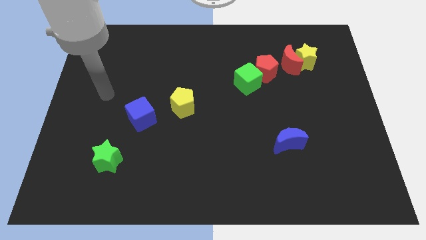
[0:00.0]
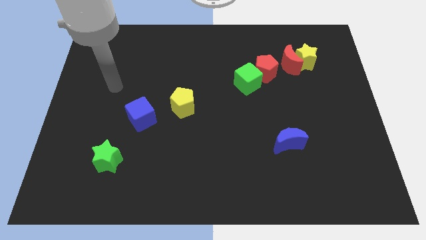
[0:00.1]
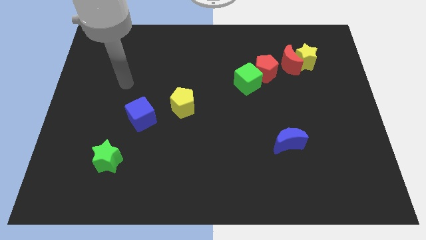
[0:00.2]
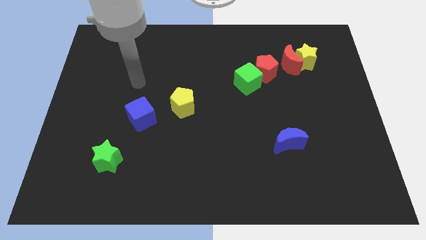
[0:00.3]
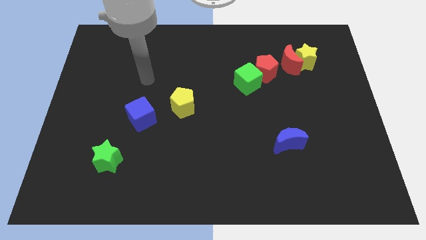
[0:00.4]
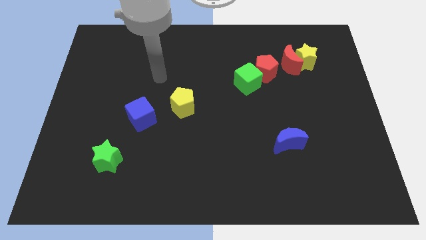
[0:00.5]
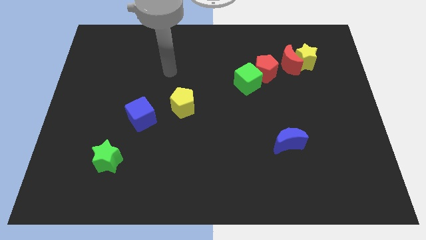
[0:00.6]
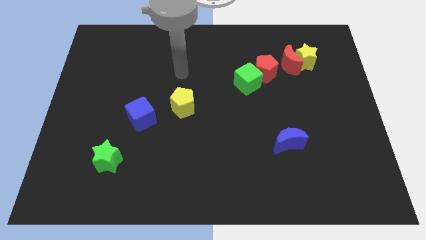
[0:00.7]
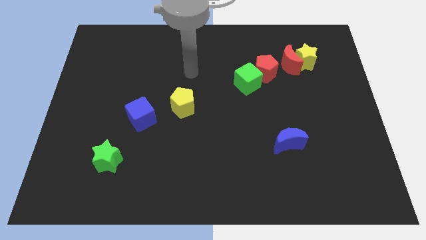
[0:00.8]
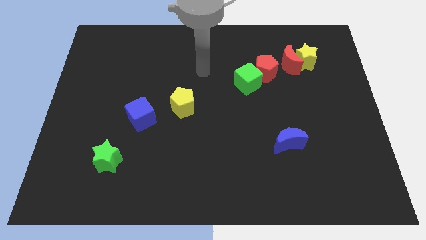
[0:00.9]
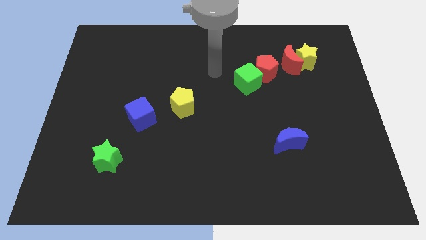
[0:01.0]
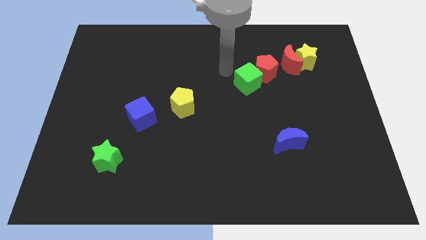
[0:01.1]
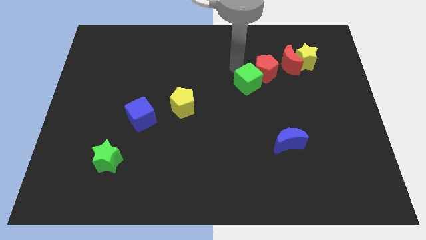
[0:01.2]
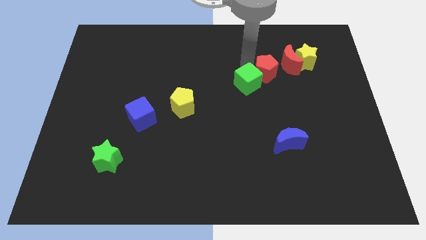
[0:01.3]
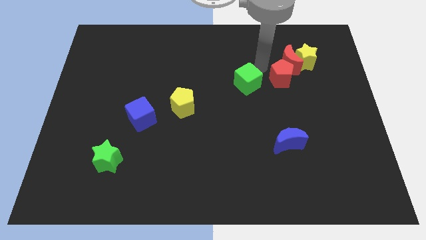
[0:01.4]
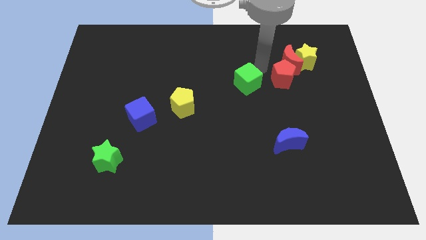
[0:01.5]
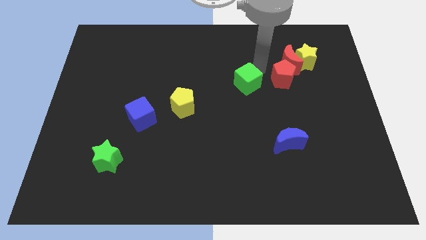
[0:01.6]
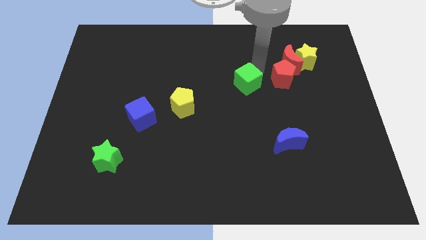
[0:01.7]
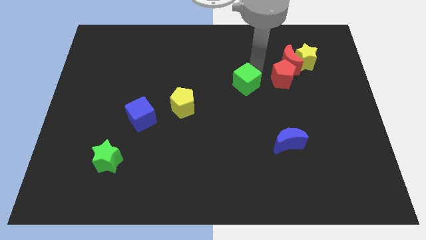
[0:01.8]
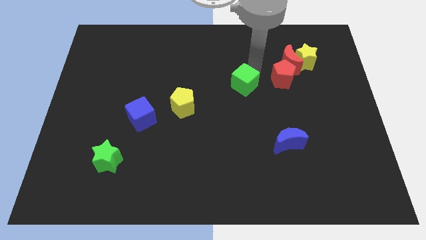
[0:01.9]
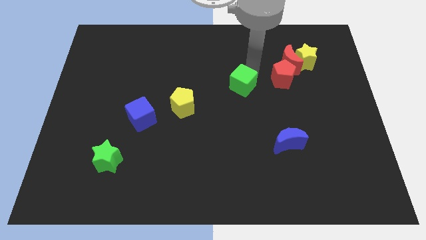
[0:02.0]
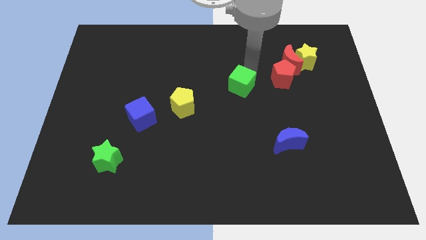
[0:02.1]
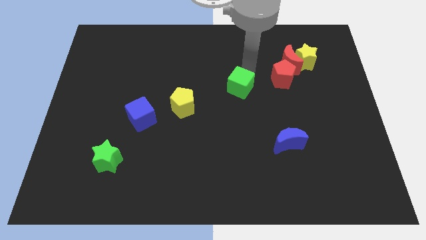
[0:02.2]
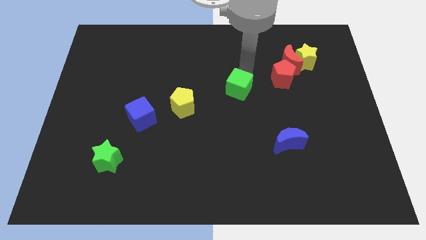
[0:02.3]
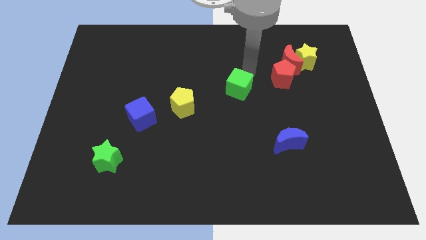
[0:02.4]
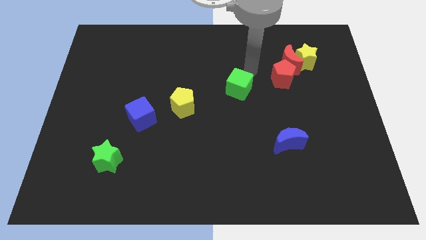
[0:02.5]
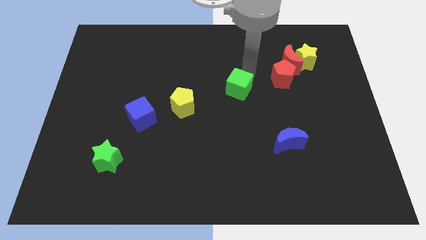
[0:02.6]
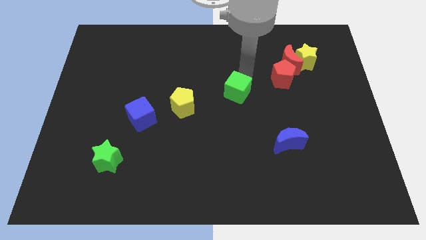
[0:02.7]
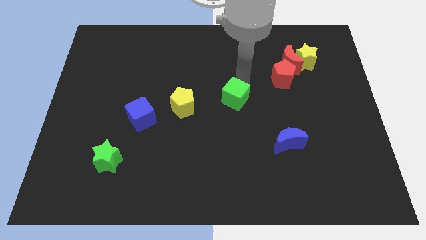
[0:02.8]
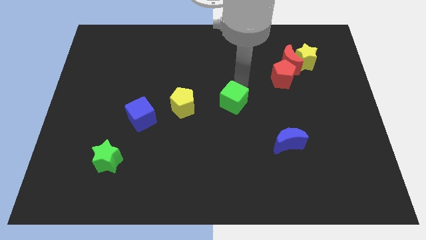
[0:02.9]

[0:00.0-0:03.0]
move the green cube diagonally downwards and left slightly

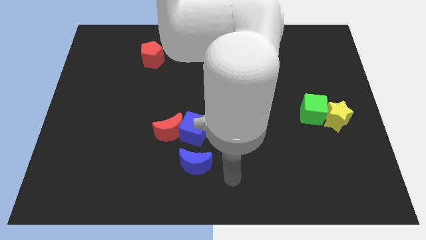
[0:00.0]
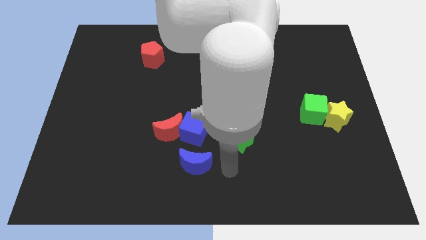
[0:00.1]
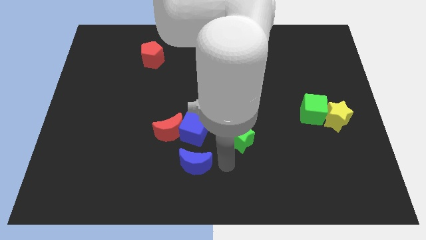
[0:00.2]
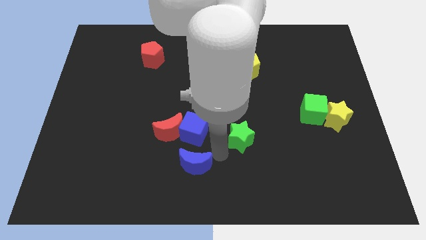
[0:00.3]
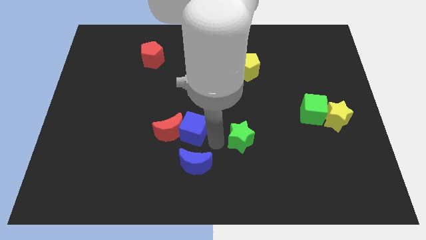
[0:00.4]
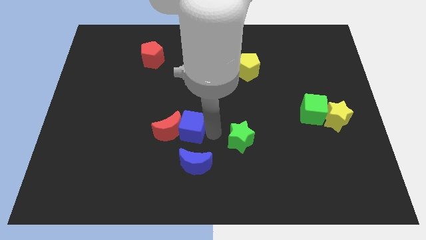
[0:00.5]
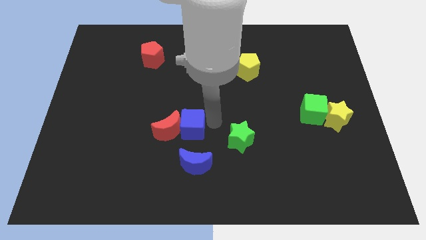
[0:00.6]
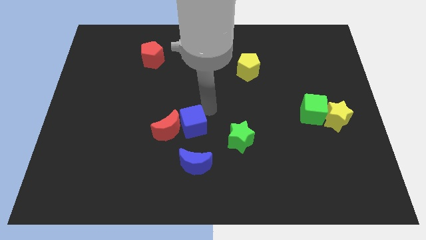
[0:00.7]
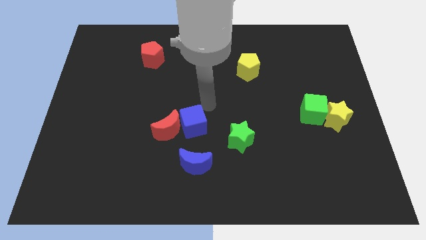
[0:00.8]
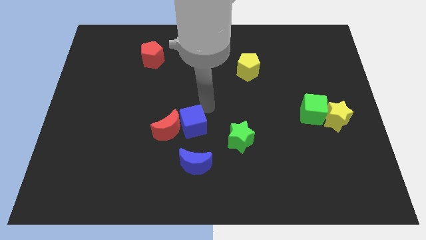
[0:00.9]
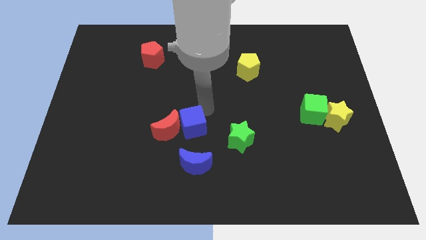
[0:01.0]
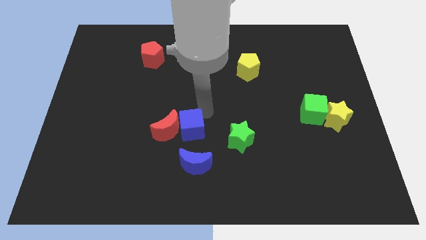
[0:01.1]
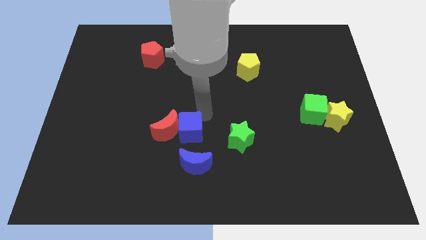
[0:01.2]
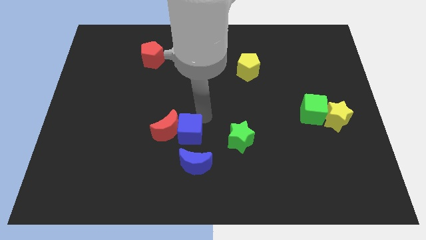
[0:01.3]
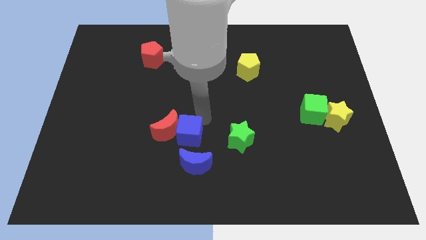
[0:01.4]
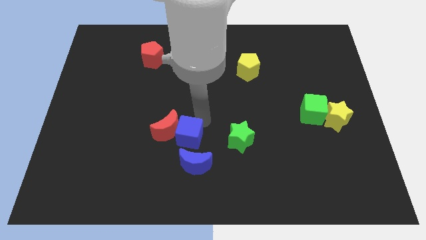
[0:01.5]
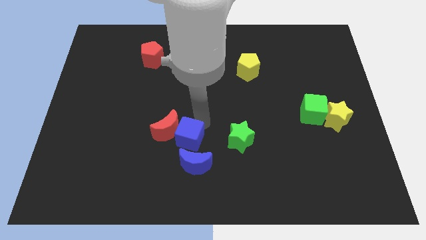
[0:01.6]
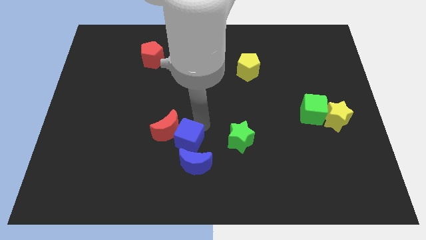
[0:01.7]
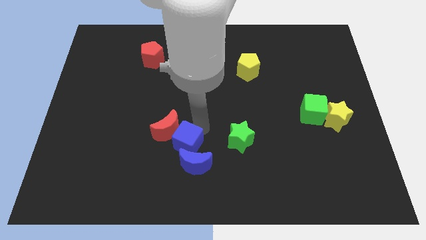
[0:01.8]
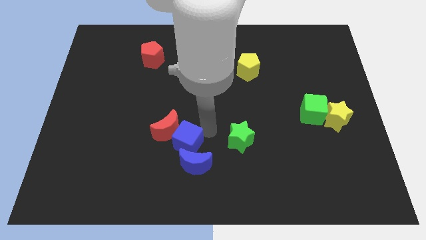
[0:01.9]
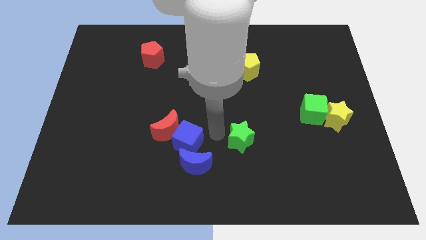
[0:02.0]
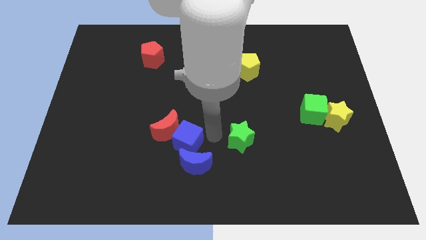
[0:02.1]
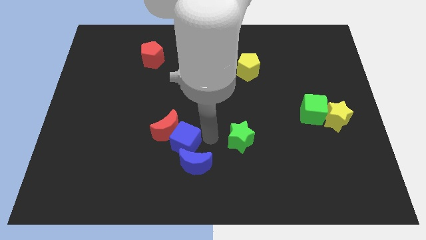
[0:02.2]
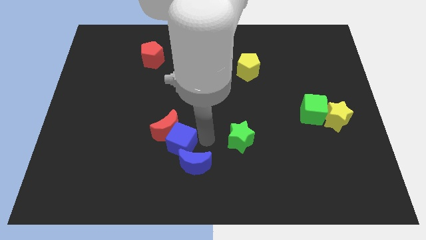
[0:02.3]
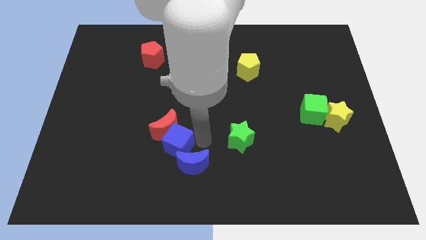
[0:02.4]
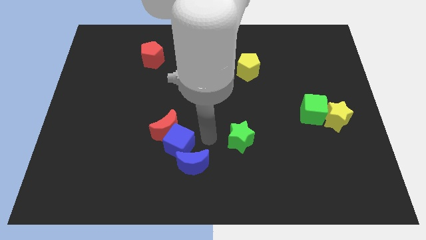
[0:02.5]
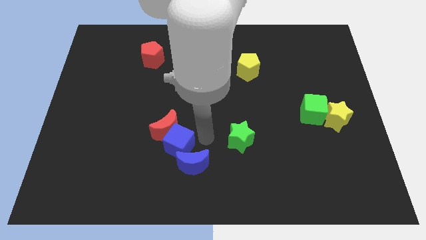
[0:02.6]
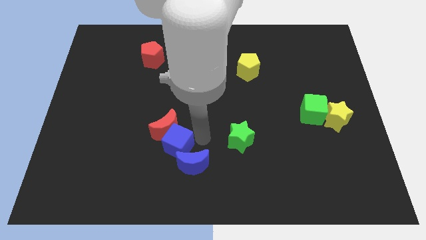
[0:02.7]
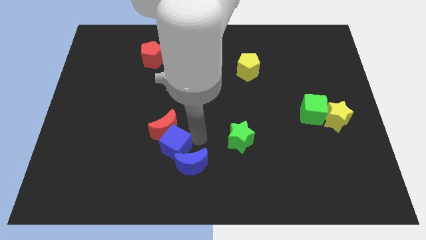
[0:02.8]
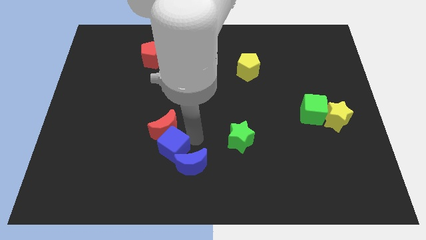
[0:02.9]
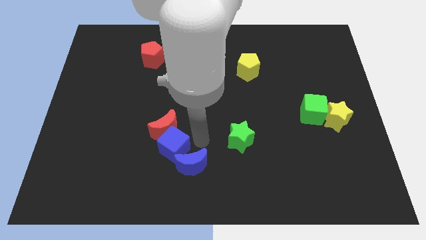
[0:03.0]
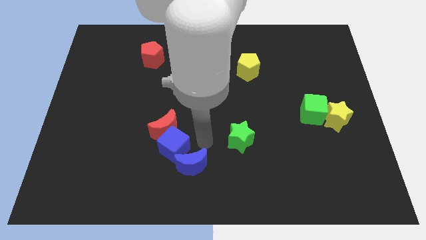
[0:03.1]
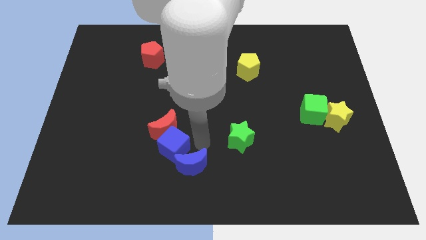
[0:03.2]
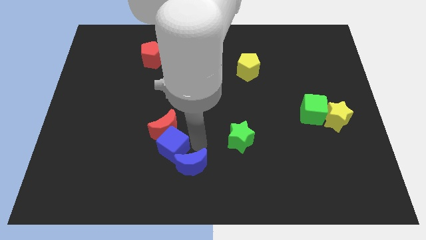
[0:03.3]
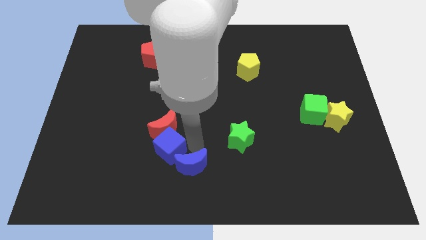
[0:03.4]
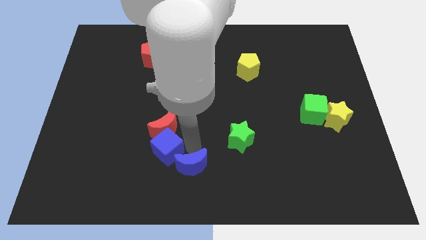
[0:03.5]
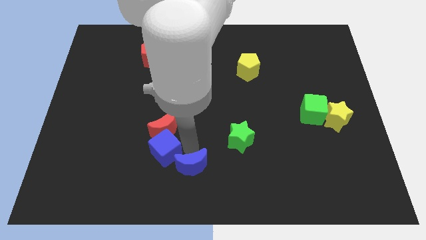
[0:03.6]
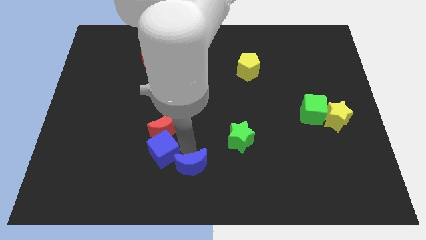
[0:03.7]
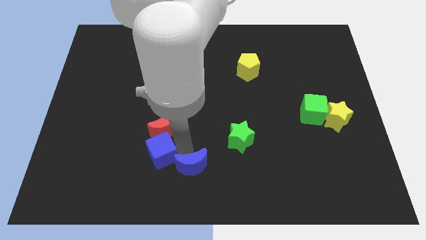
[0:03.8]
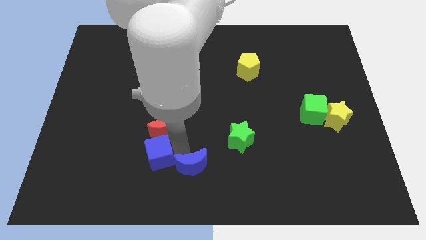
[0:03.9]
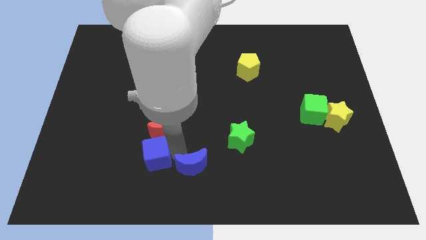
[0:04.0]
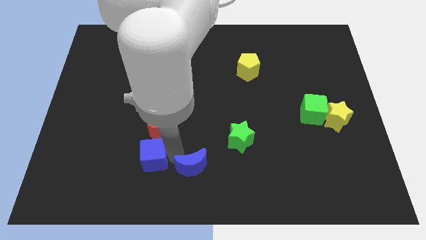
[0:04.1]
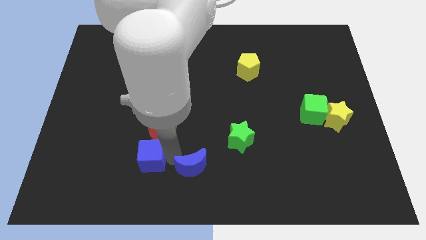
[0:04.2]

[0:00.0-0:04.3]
slide the blue cube a little left

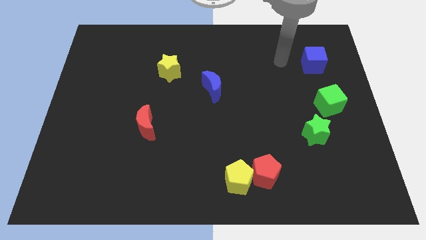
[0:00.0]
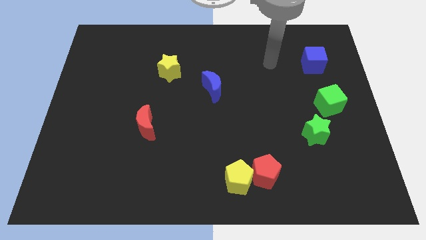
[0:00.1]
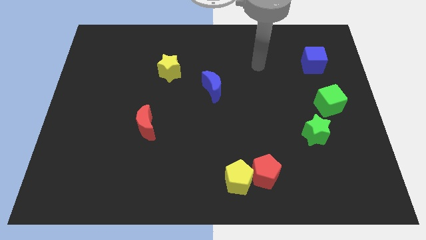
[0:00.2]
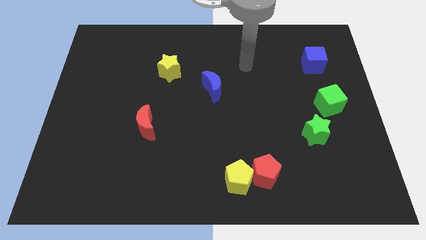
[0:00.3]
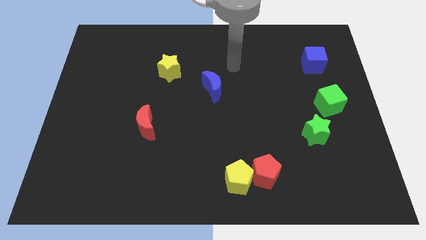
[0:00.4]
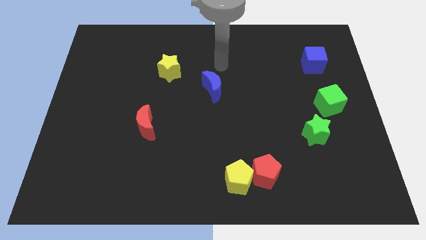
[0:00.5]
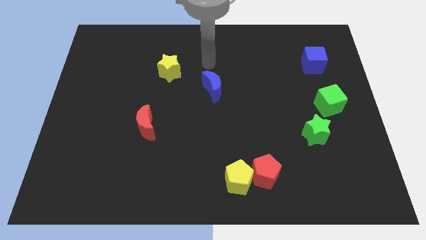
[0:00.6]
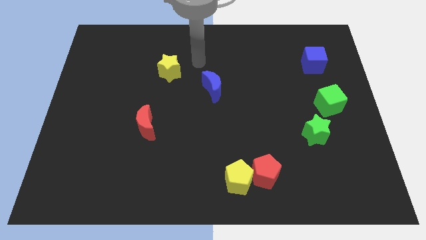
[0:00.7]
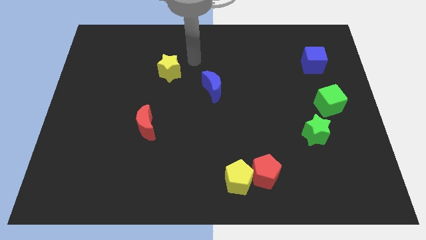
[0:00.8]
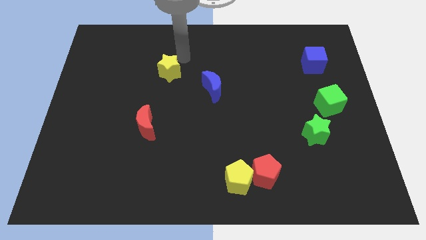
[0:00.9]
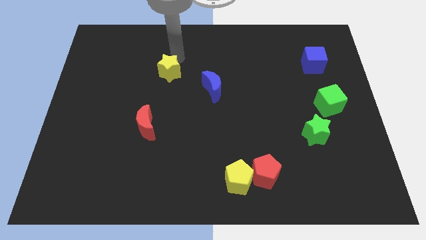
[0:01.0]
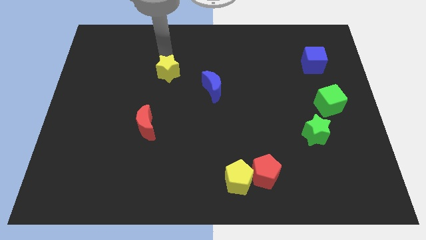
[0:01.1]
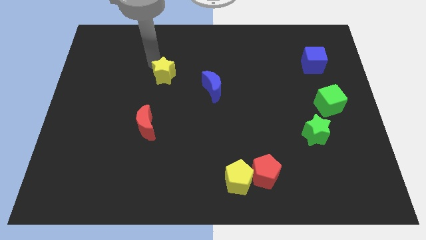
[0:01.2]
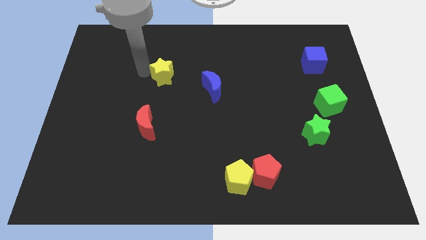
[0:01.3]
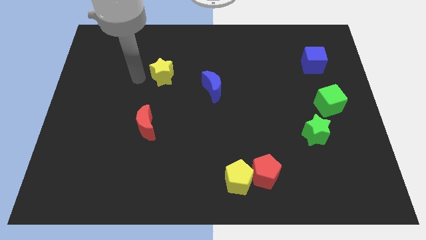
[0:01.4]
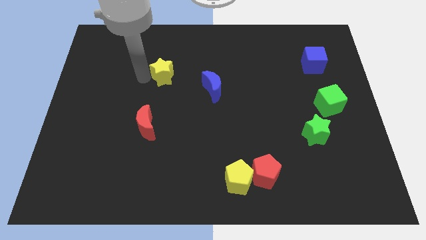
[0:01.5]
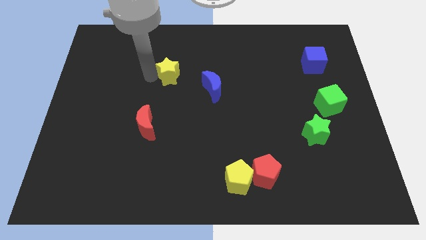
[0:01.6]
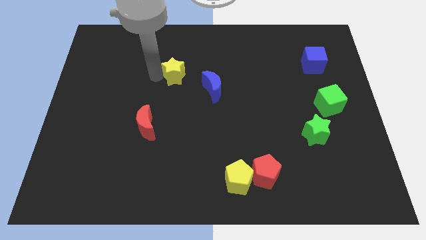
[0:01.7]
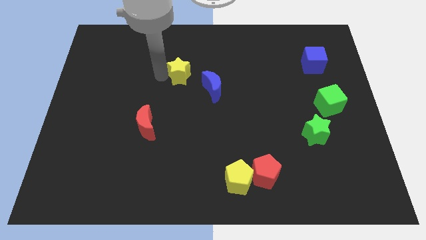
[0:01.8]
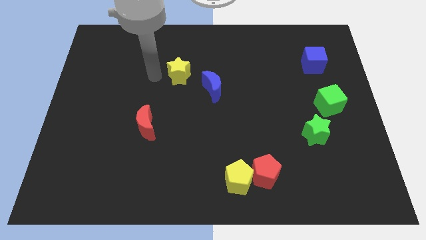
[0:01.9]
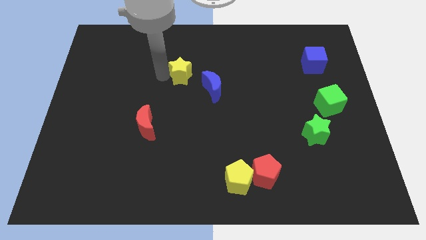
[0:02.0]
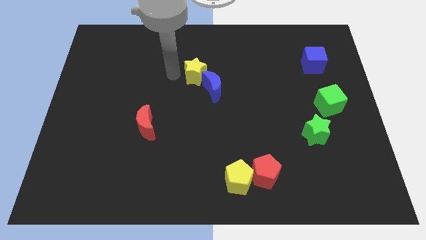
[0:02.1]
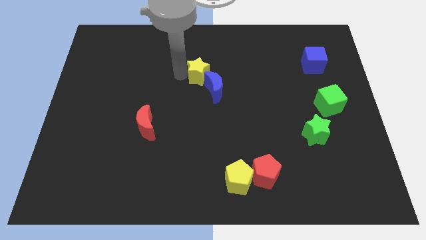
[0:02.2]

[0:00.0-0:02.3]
slightly push the yellow star to the right
